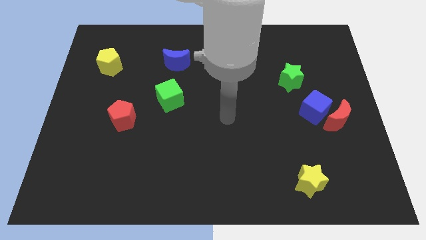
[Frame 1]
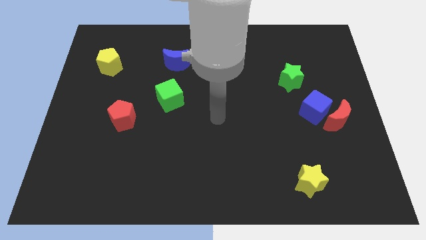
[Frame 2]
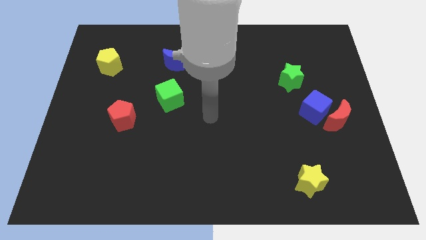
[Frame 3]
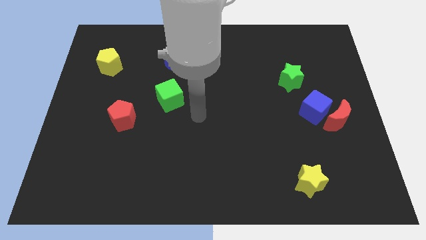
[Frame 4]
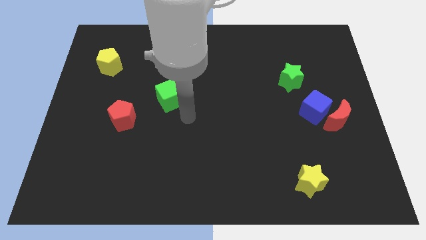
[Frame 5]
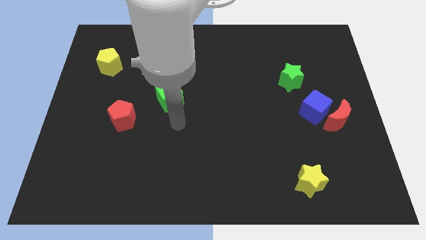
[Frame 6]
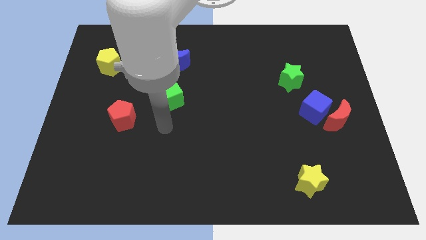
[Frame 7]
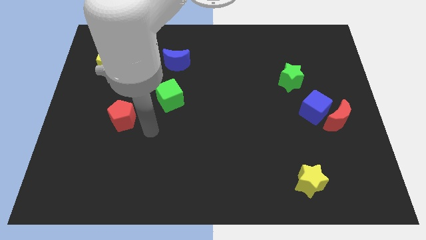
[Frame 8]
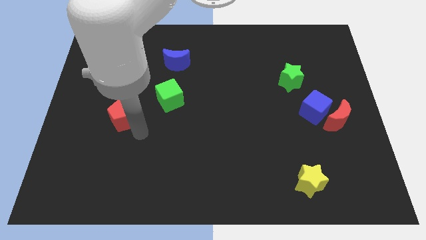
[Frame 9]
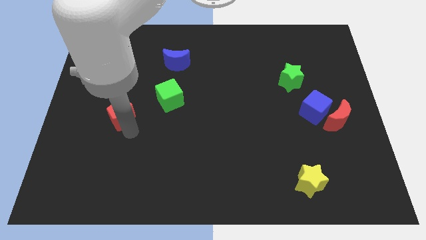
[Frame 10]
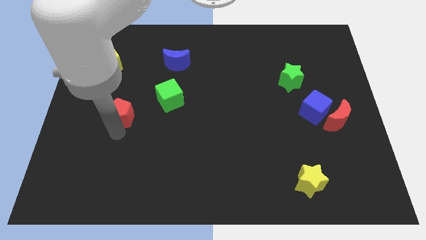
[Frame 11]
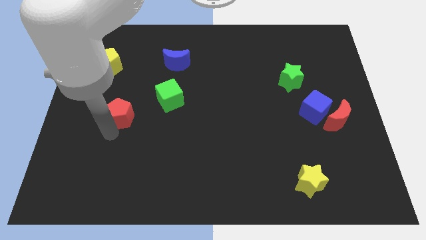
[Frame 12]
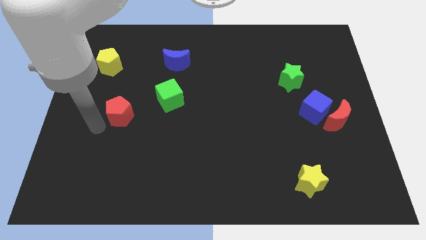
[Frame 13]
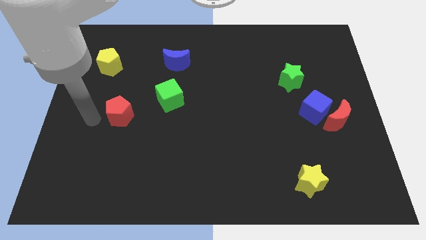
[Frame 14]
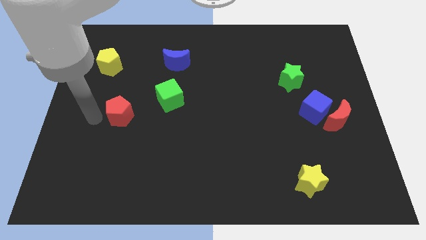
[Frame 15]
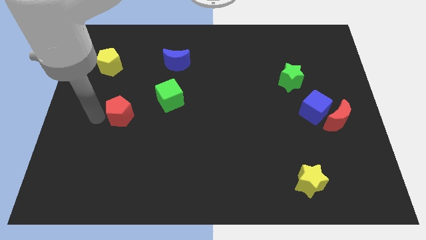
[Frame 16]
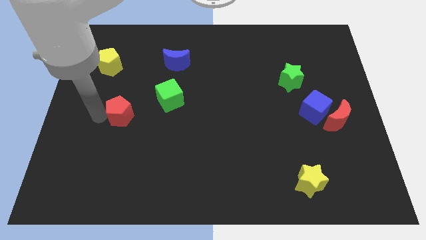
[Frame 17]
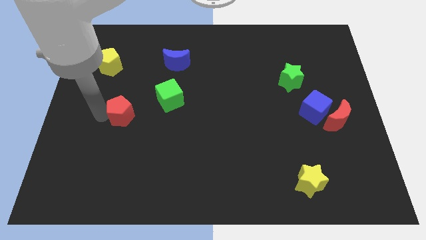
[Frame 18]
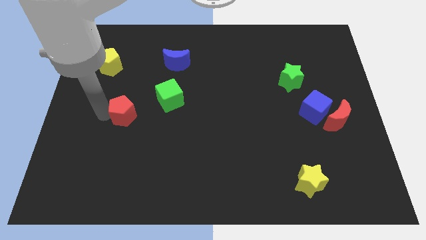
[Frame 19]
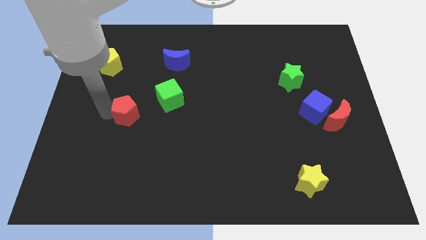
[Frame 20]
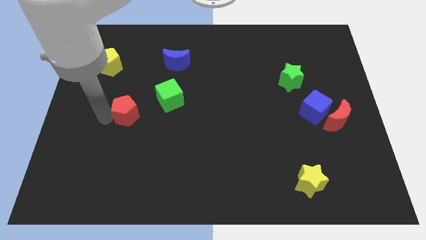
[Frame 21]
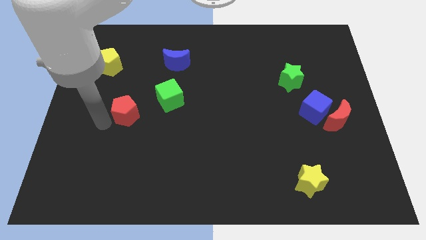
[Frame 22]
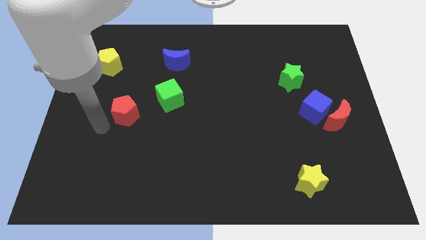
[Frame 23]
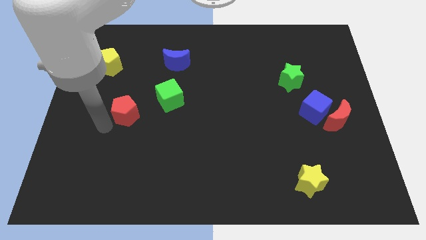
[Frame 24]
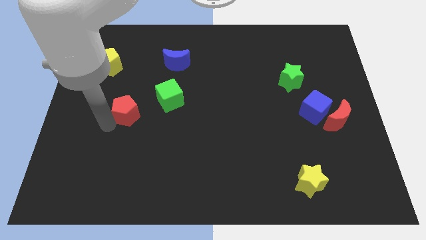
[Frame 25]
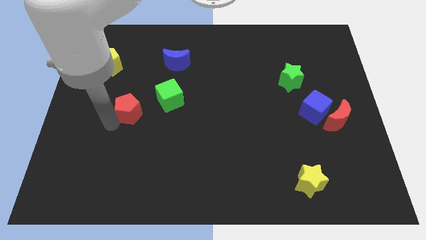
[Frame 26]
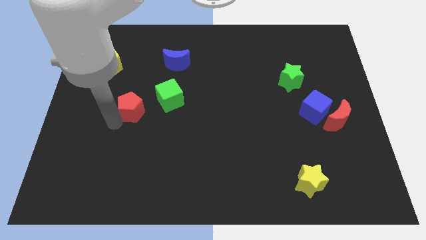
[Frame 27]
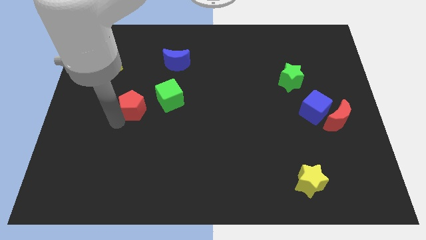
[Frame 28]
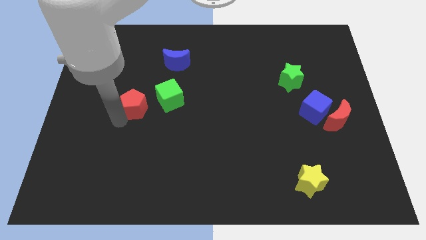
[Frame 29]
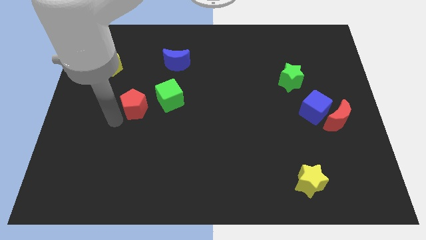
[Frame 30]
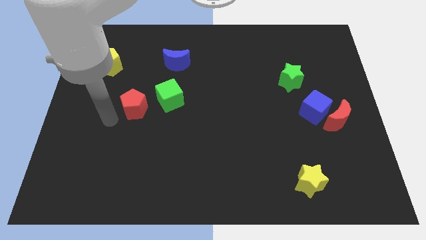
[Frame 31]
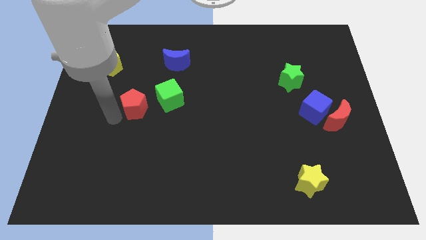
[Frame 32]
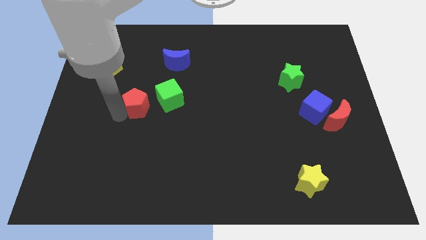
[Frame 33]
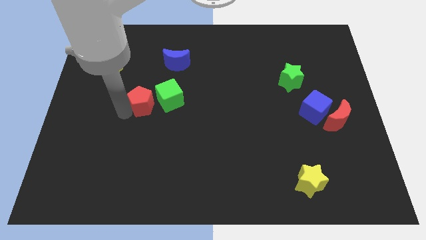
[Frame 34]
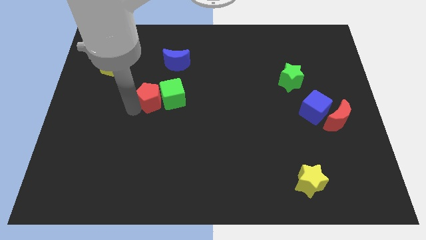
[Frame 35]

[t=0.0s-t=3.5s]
slightly push the red pentagon up and to the right

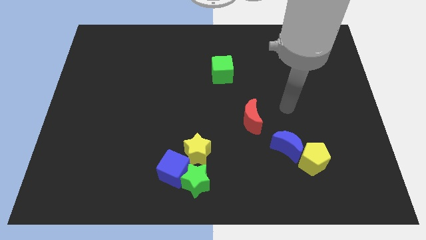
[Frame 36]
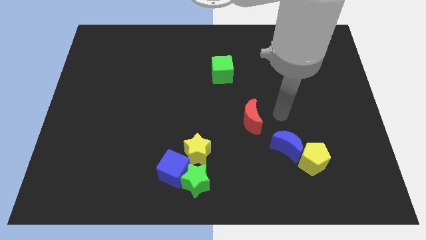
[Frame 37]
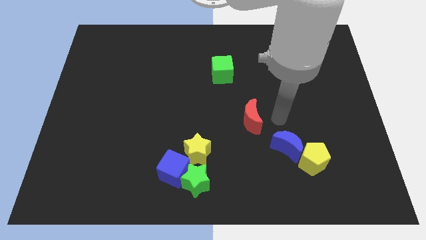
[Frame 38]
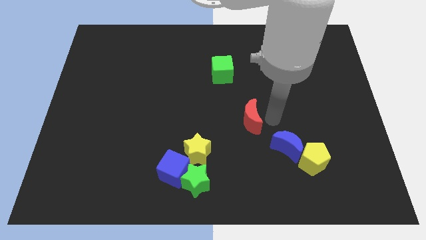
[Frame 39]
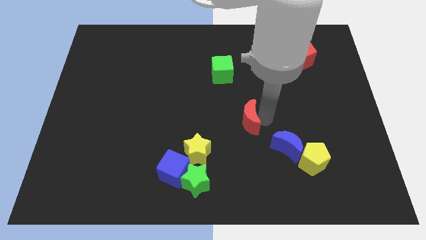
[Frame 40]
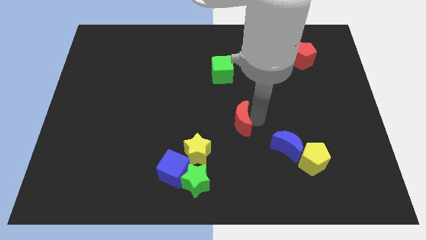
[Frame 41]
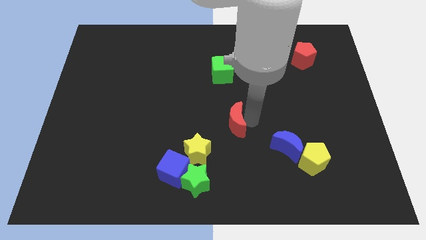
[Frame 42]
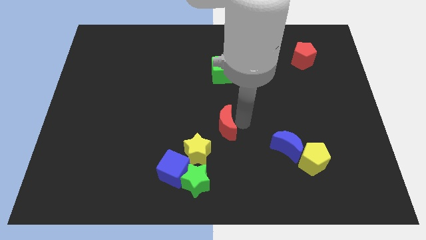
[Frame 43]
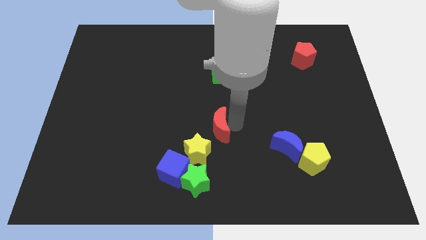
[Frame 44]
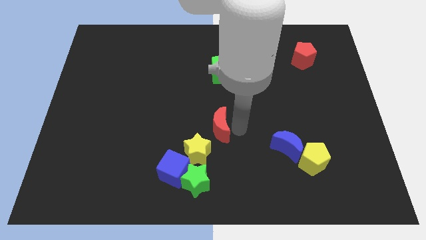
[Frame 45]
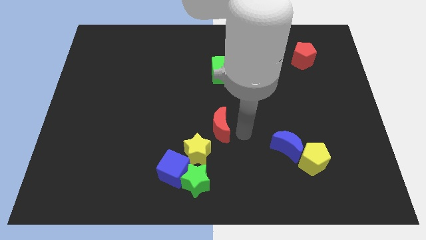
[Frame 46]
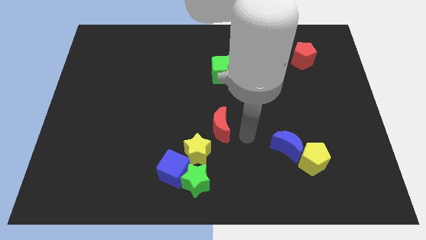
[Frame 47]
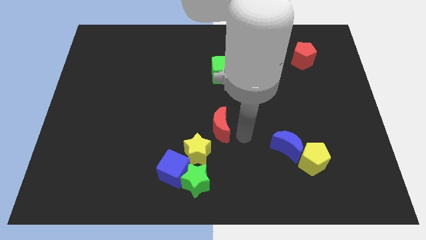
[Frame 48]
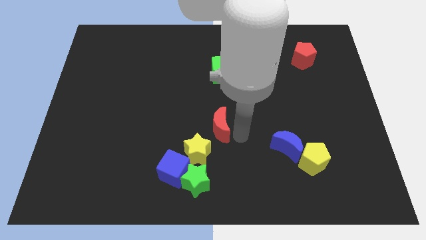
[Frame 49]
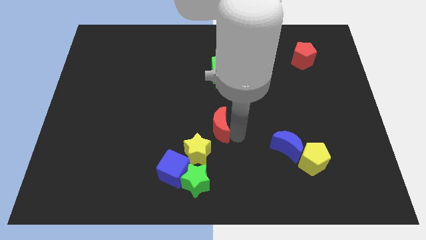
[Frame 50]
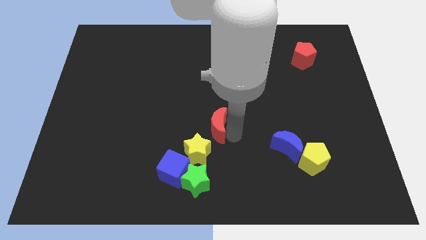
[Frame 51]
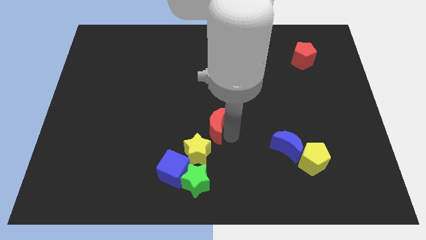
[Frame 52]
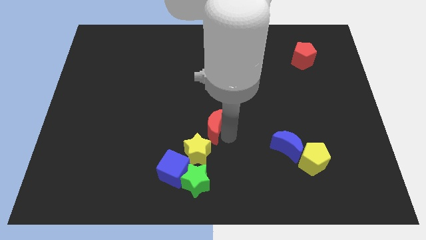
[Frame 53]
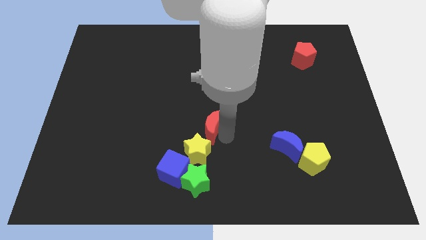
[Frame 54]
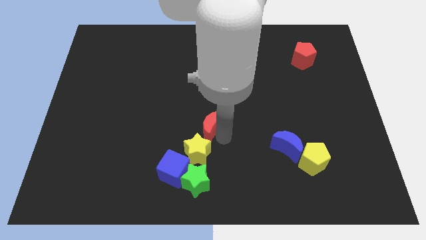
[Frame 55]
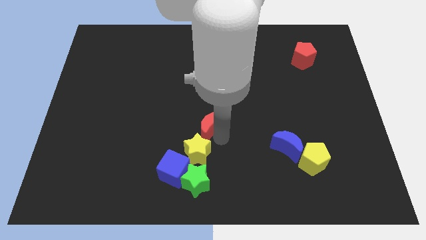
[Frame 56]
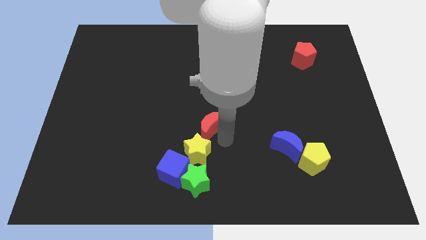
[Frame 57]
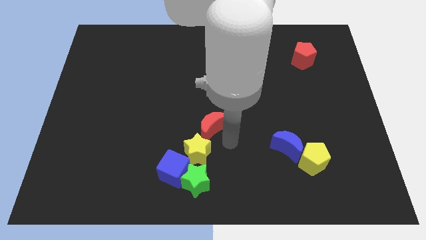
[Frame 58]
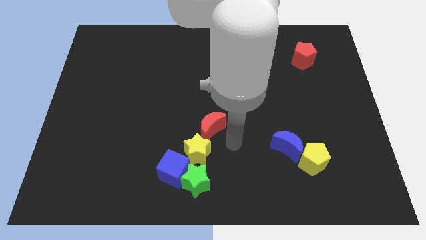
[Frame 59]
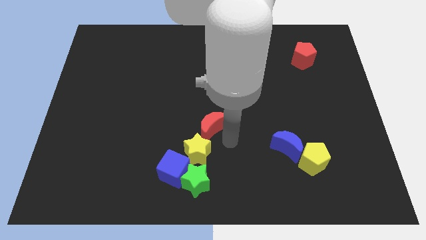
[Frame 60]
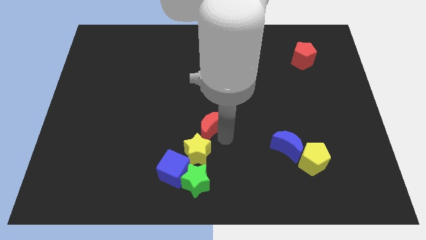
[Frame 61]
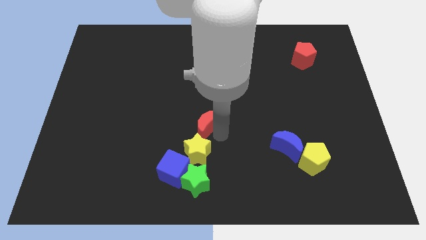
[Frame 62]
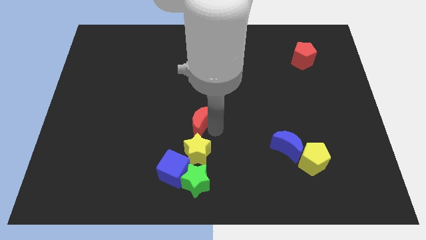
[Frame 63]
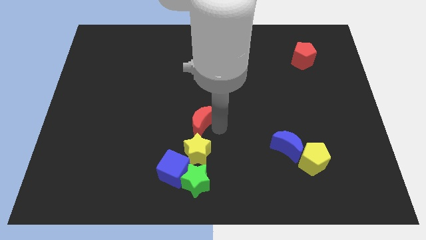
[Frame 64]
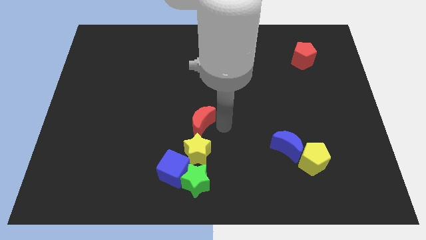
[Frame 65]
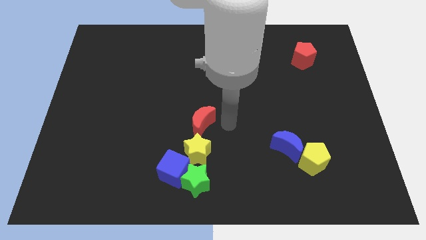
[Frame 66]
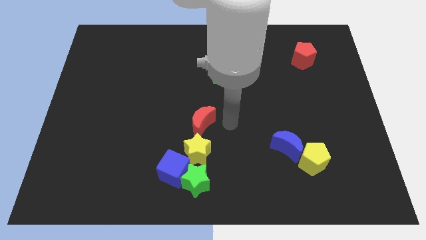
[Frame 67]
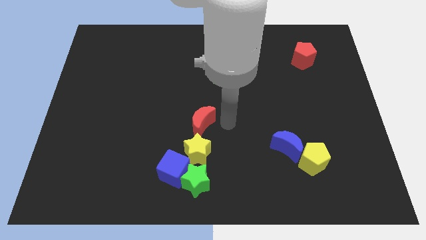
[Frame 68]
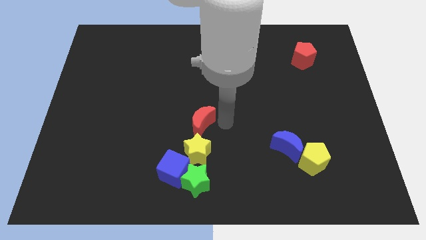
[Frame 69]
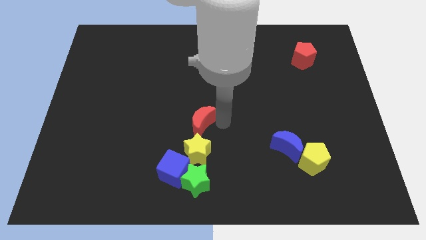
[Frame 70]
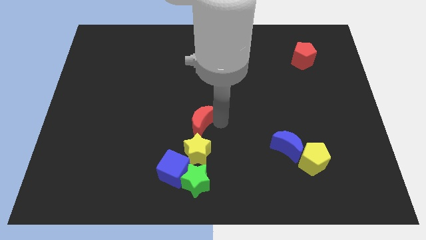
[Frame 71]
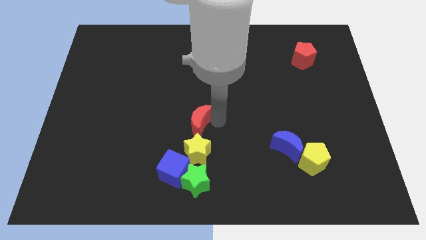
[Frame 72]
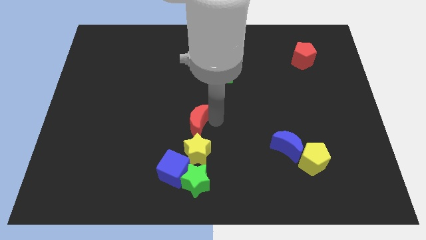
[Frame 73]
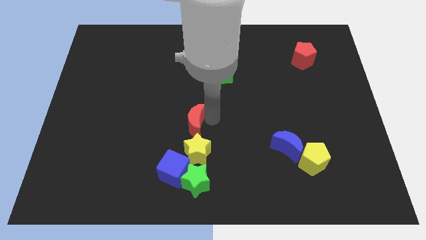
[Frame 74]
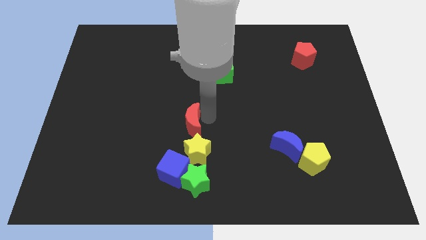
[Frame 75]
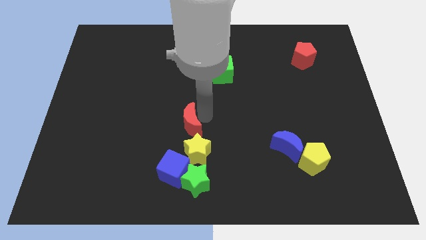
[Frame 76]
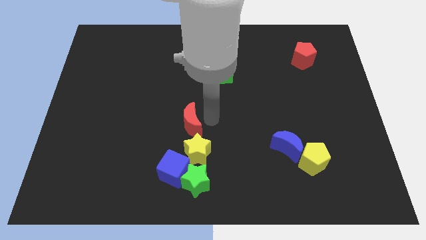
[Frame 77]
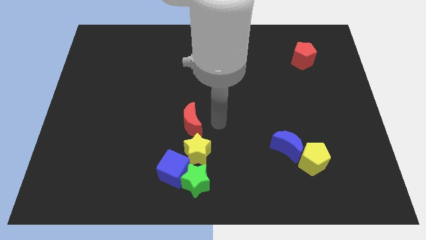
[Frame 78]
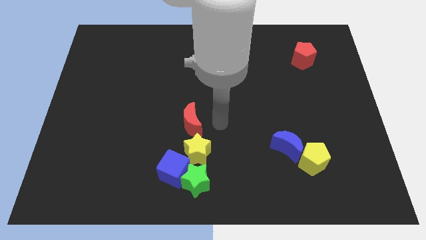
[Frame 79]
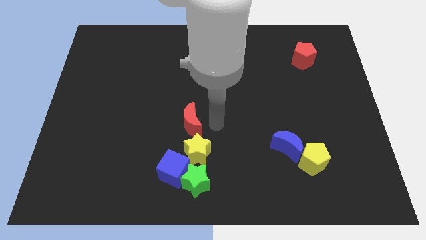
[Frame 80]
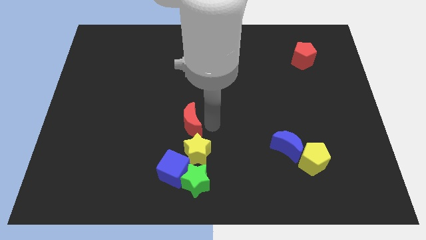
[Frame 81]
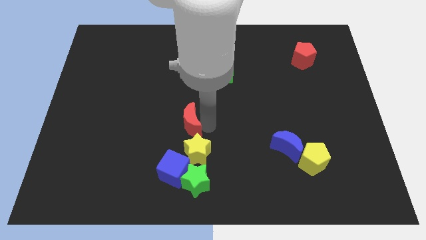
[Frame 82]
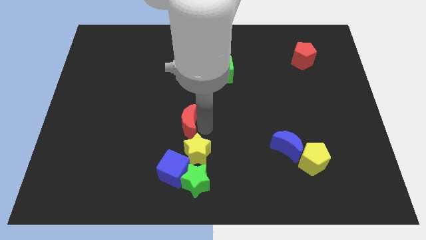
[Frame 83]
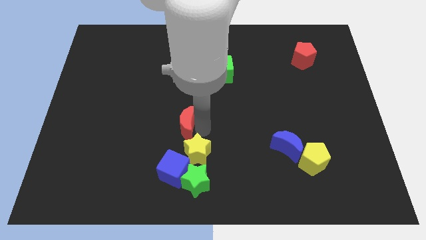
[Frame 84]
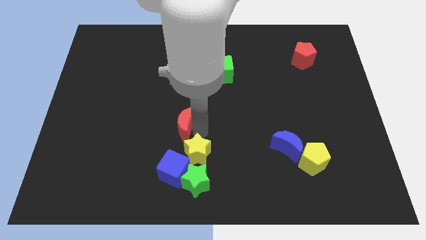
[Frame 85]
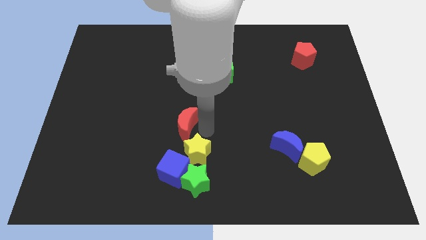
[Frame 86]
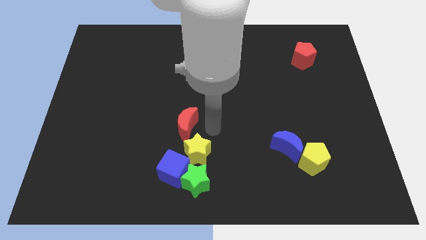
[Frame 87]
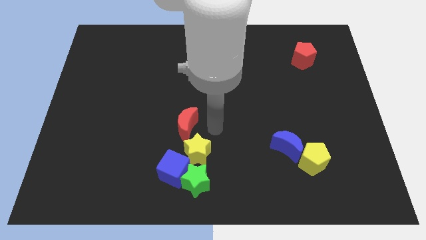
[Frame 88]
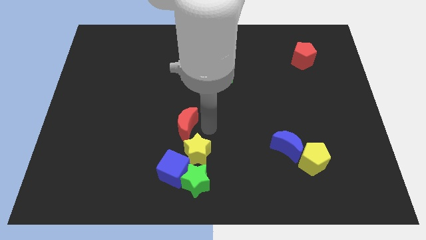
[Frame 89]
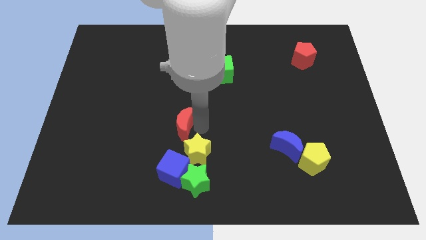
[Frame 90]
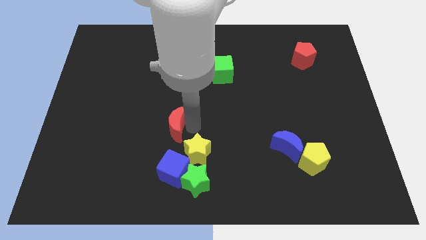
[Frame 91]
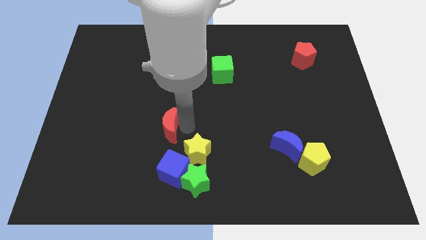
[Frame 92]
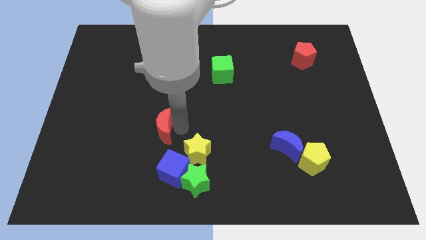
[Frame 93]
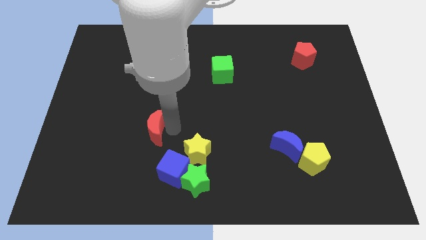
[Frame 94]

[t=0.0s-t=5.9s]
push the red moon to the left
